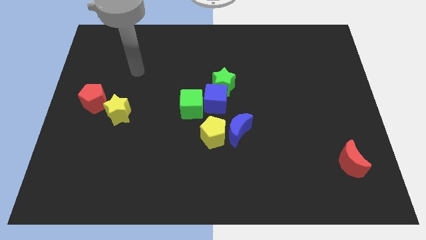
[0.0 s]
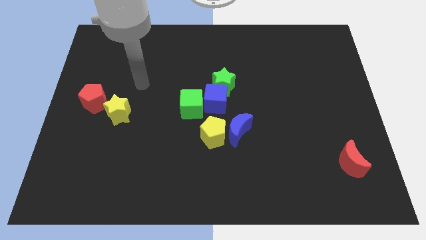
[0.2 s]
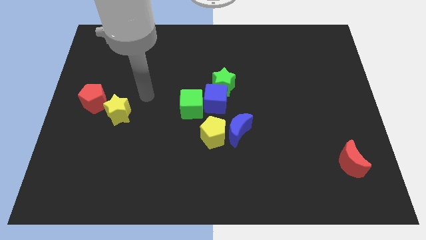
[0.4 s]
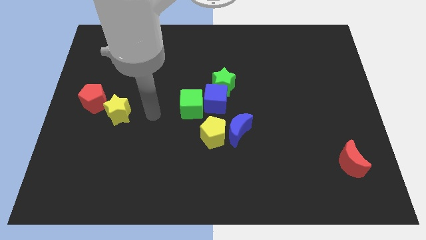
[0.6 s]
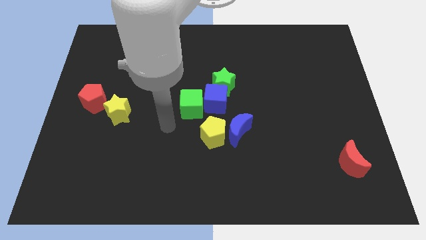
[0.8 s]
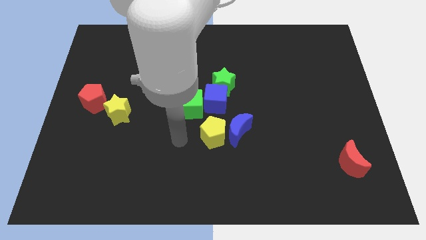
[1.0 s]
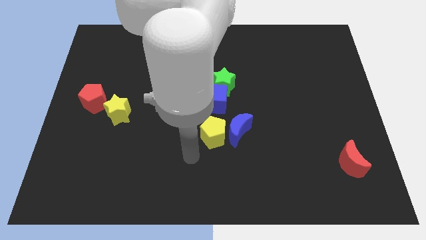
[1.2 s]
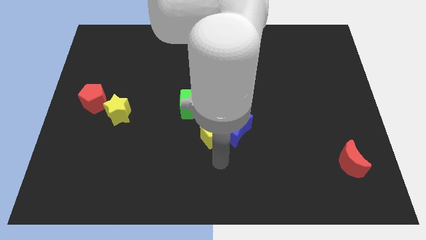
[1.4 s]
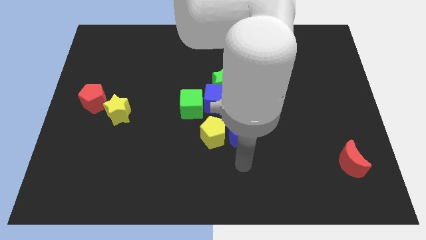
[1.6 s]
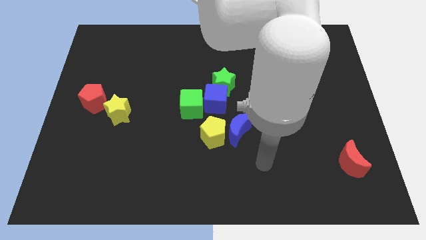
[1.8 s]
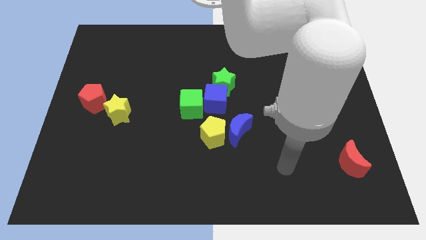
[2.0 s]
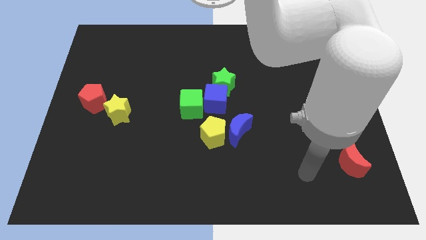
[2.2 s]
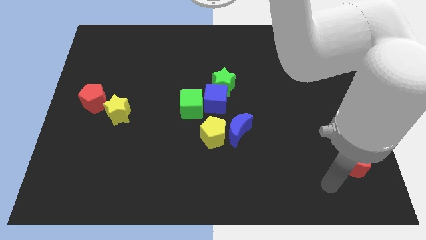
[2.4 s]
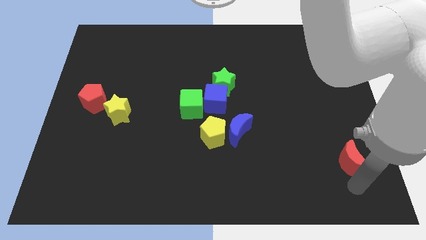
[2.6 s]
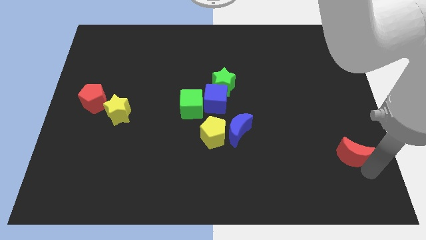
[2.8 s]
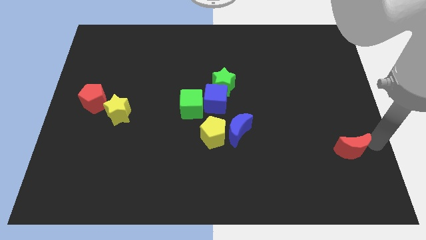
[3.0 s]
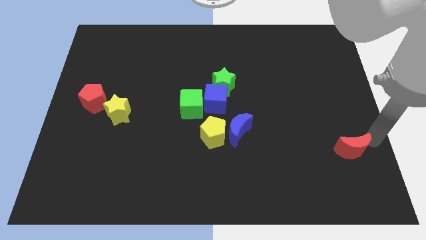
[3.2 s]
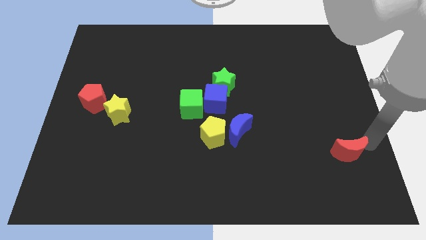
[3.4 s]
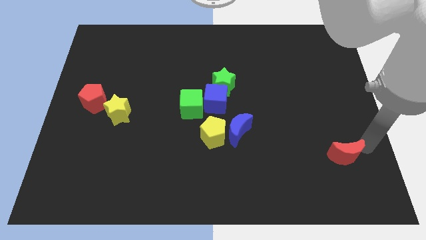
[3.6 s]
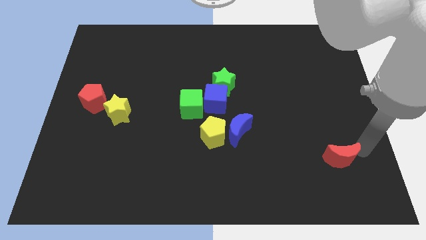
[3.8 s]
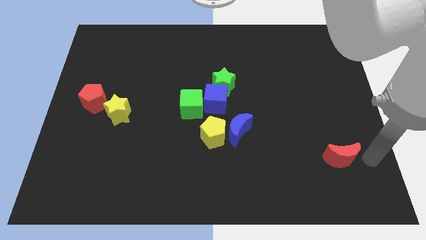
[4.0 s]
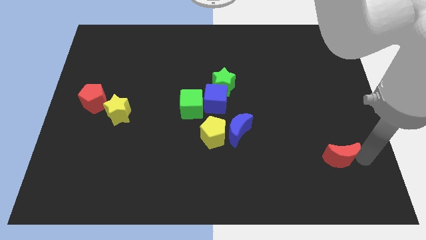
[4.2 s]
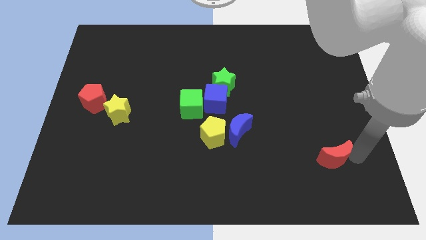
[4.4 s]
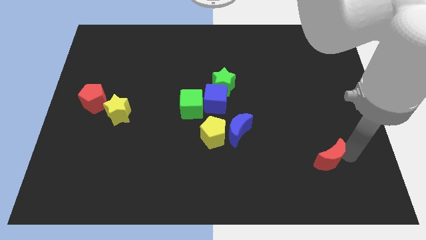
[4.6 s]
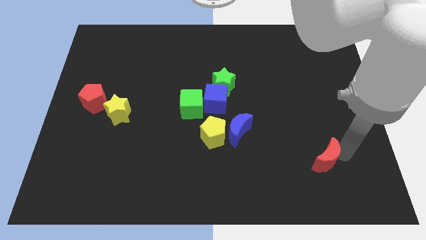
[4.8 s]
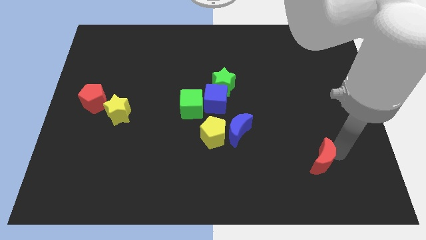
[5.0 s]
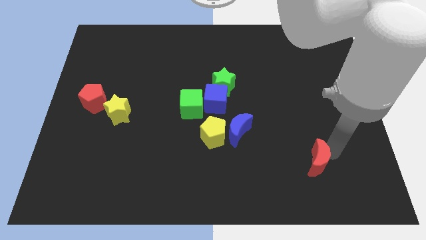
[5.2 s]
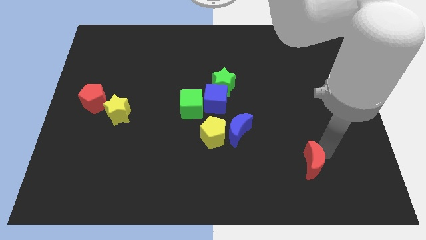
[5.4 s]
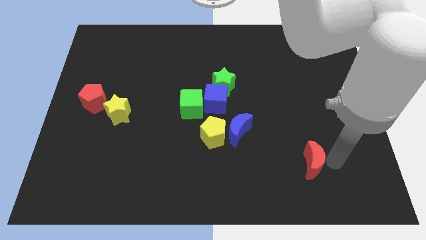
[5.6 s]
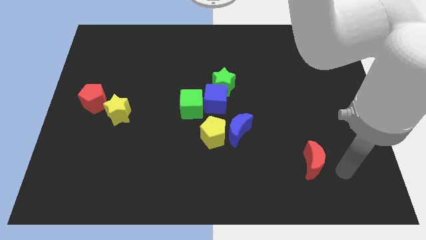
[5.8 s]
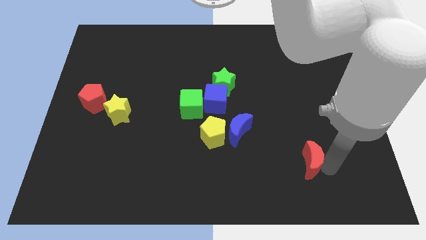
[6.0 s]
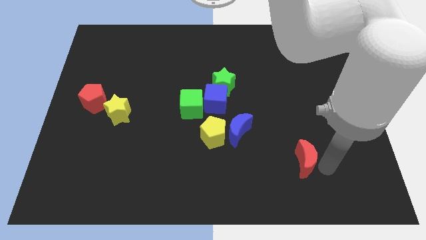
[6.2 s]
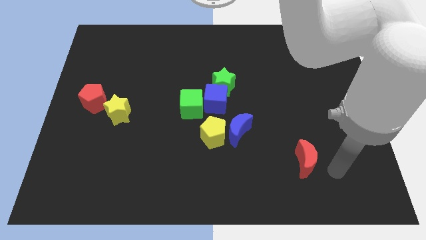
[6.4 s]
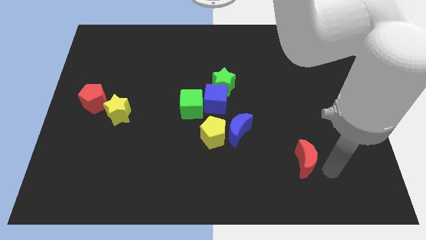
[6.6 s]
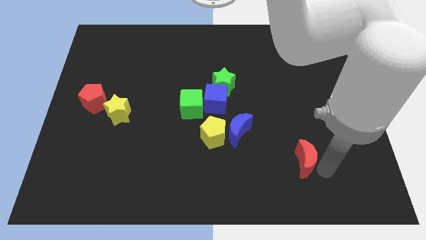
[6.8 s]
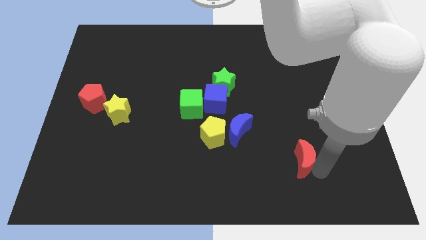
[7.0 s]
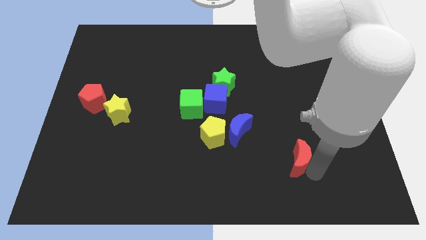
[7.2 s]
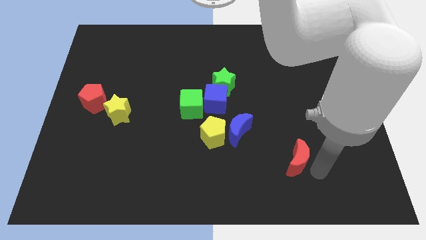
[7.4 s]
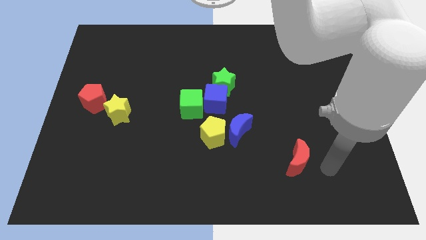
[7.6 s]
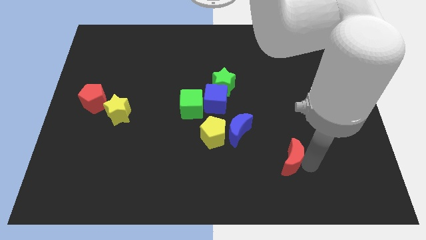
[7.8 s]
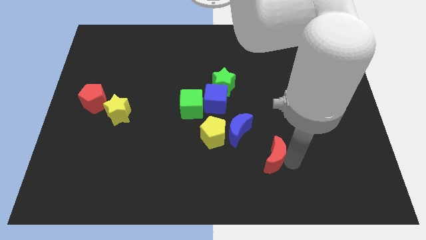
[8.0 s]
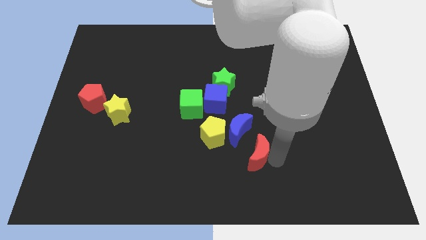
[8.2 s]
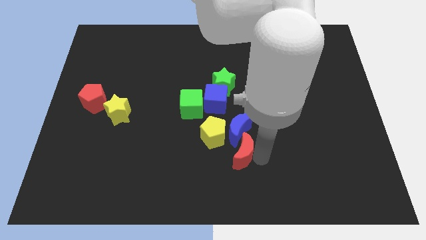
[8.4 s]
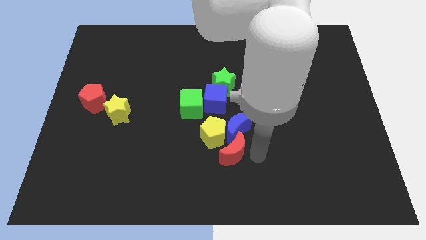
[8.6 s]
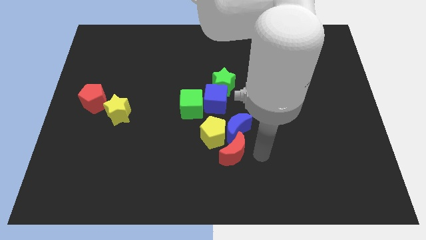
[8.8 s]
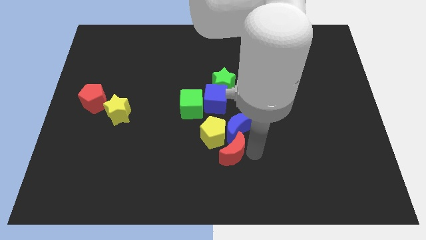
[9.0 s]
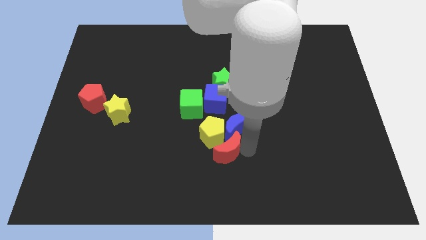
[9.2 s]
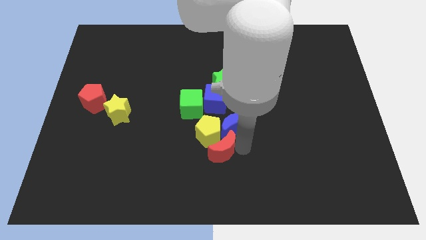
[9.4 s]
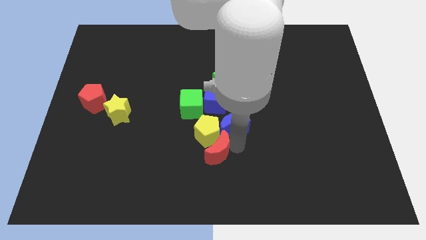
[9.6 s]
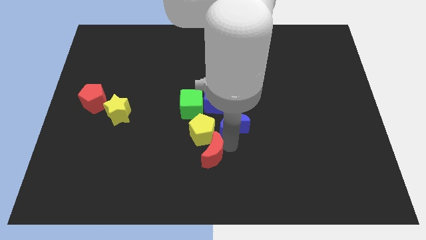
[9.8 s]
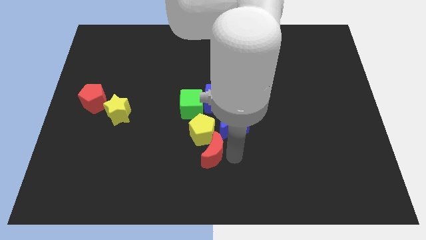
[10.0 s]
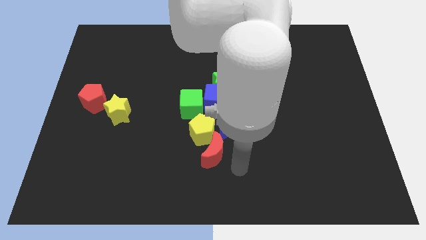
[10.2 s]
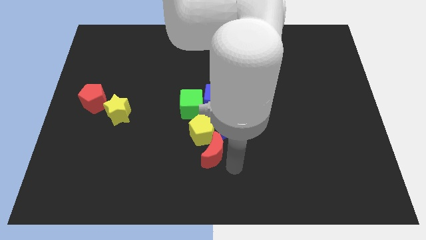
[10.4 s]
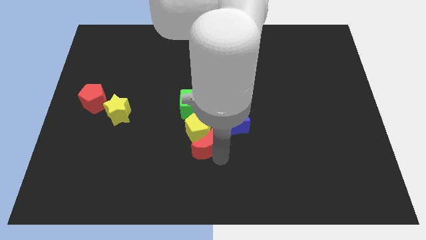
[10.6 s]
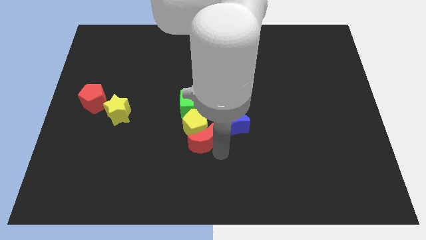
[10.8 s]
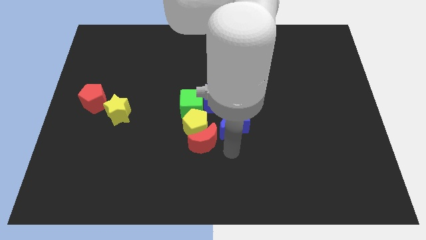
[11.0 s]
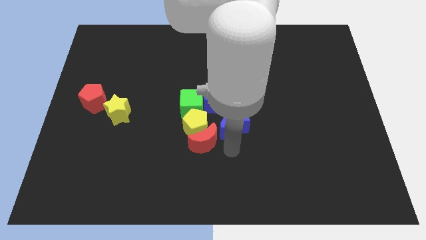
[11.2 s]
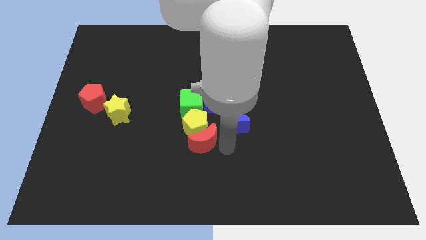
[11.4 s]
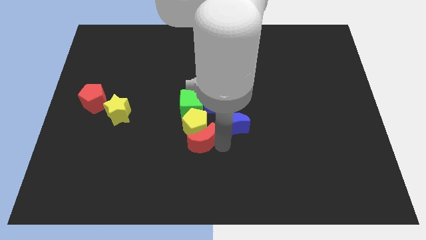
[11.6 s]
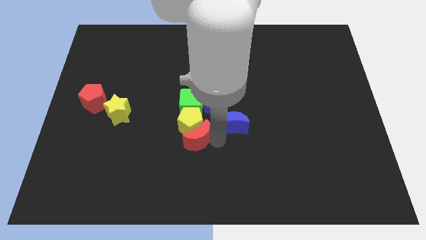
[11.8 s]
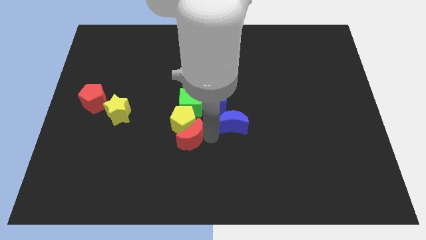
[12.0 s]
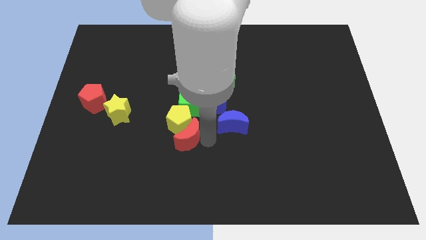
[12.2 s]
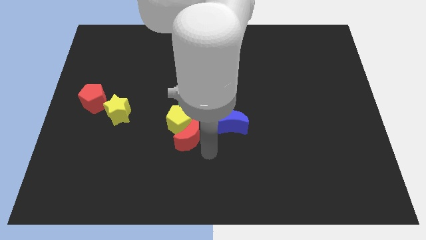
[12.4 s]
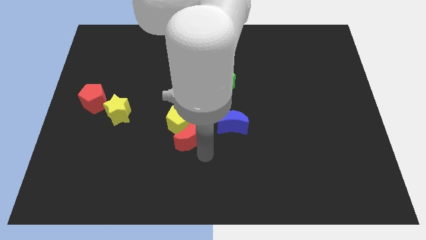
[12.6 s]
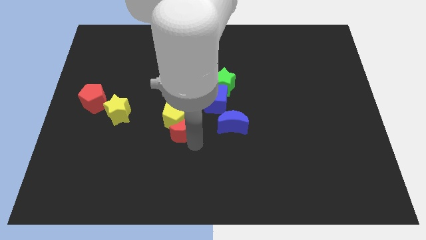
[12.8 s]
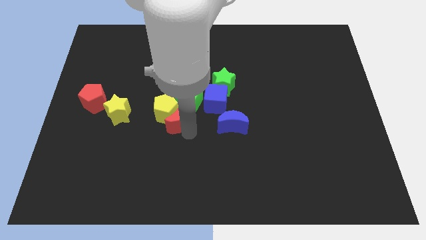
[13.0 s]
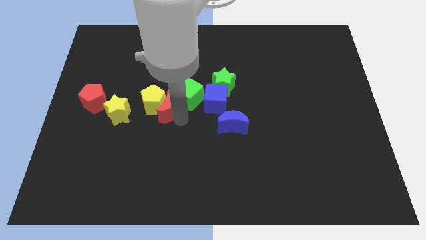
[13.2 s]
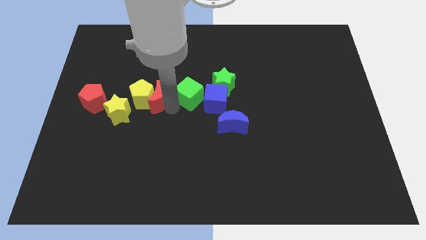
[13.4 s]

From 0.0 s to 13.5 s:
put the red moon to the right side of the red pentagon
